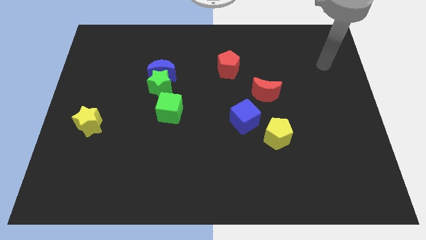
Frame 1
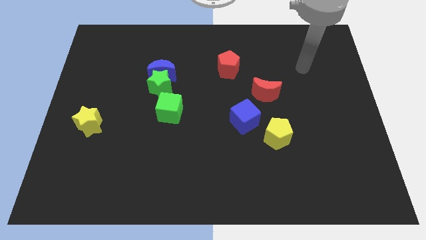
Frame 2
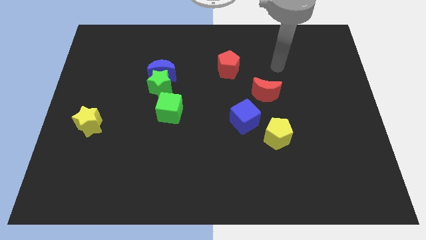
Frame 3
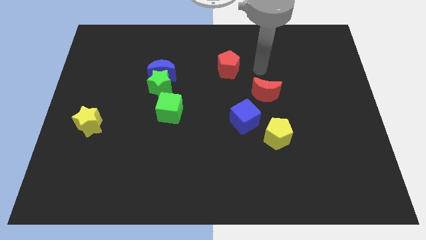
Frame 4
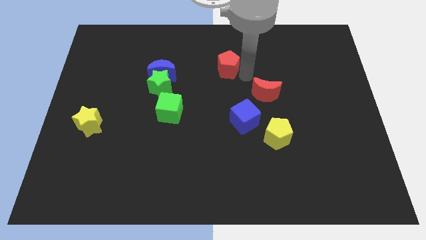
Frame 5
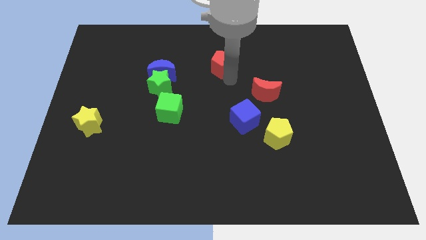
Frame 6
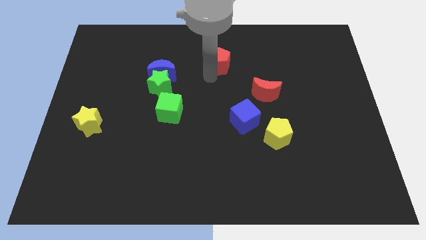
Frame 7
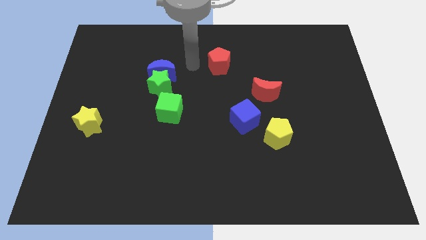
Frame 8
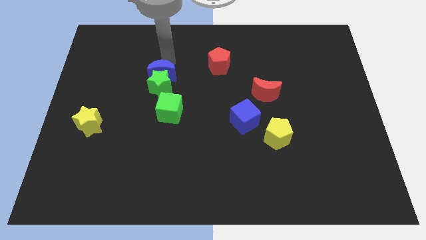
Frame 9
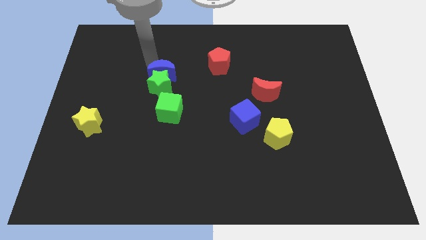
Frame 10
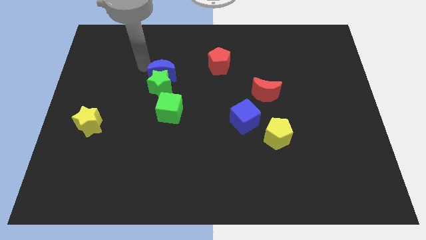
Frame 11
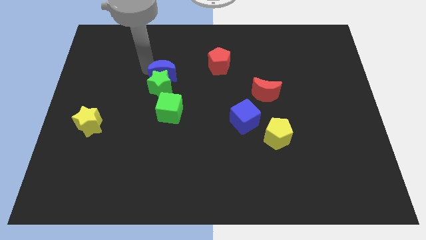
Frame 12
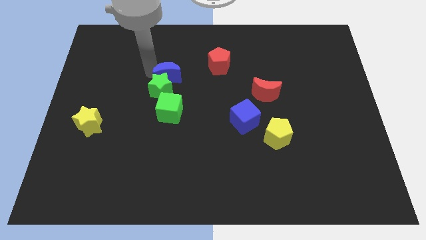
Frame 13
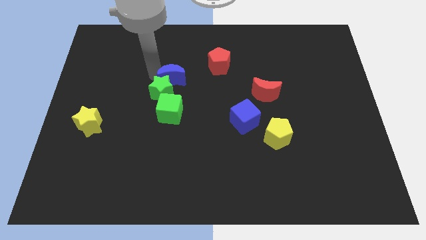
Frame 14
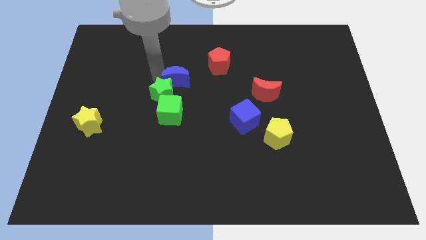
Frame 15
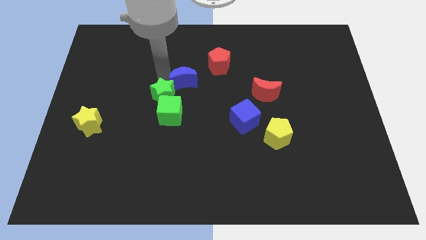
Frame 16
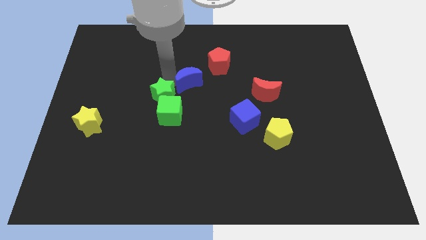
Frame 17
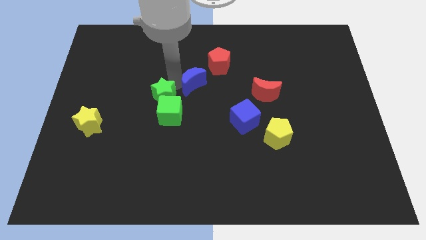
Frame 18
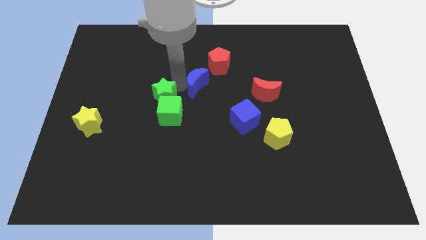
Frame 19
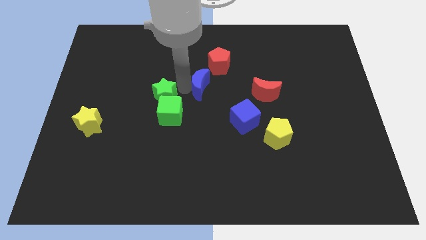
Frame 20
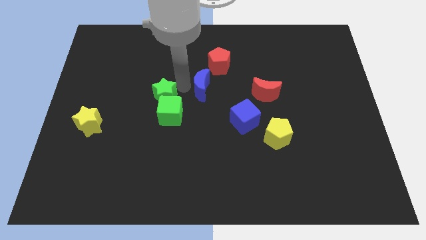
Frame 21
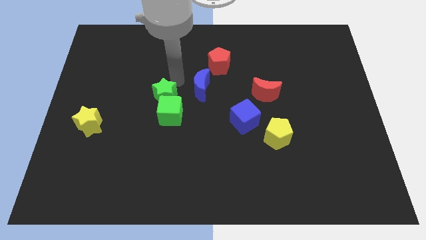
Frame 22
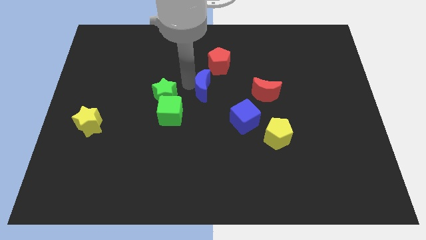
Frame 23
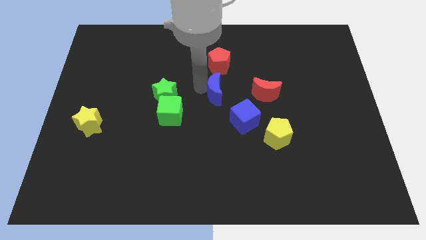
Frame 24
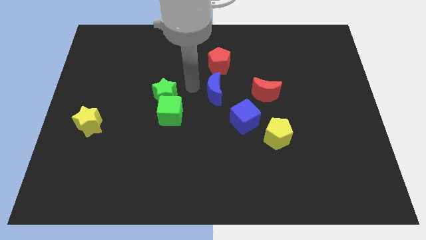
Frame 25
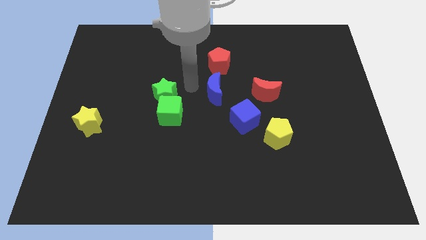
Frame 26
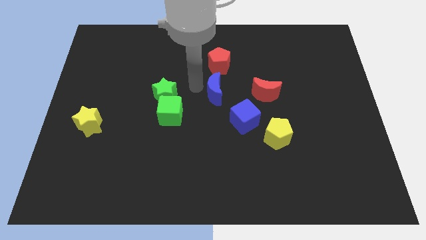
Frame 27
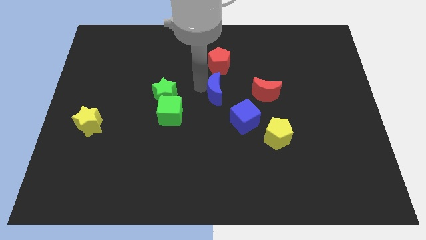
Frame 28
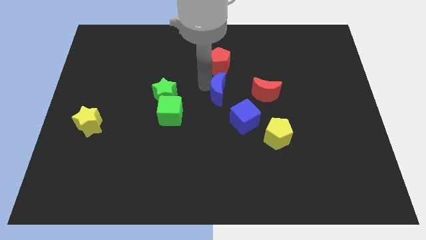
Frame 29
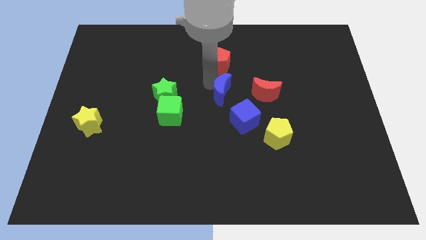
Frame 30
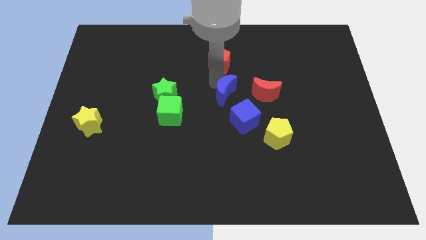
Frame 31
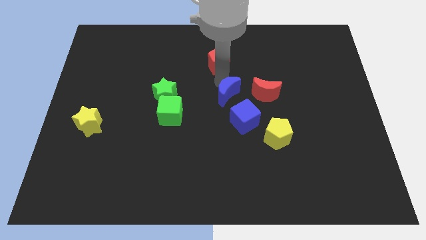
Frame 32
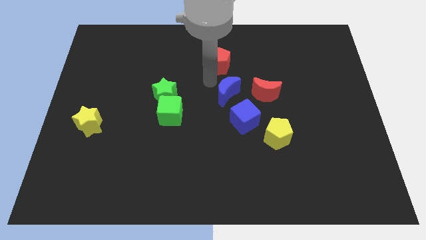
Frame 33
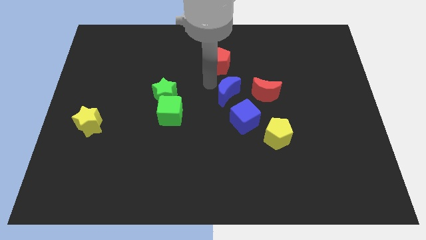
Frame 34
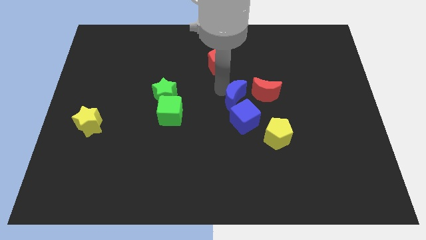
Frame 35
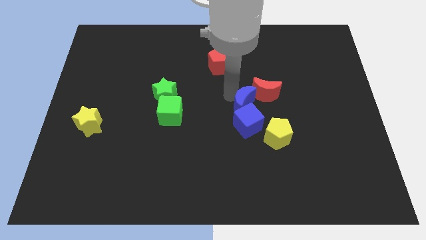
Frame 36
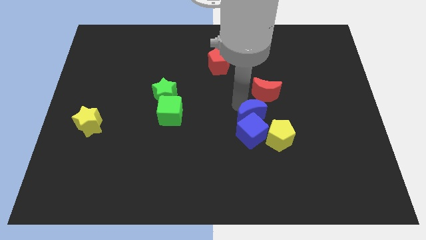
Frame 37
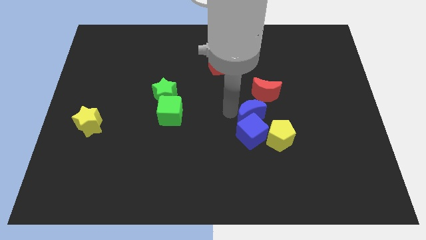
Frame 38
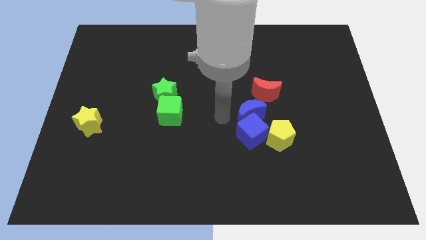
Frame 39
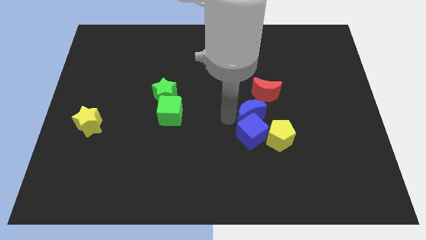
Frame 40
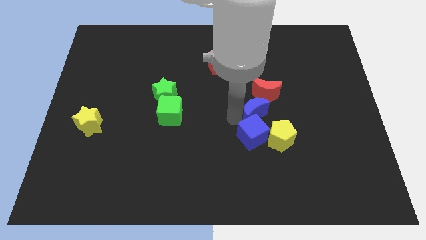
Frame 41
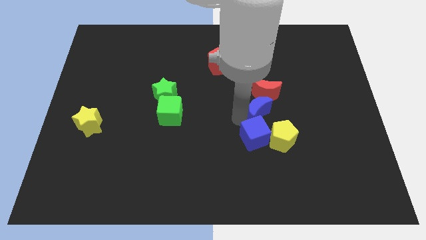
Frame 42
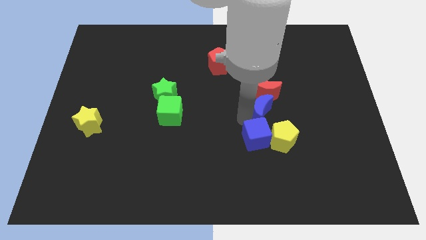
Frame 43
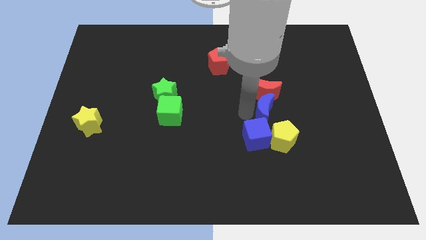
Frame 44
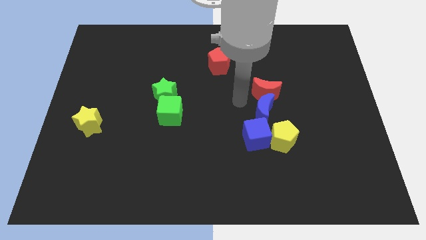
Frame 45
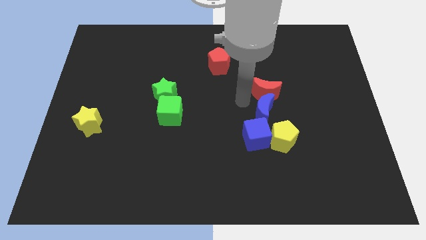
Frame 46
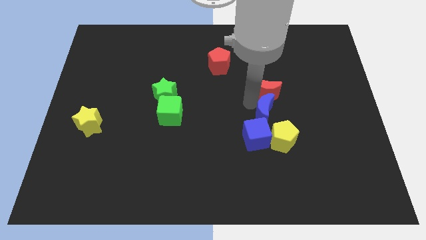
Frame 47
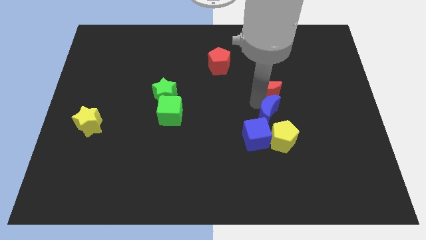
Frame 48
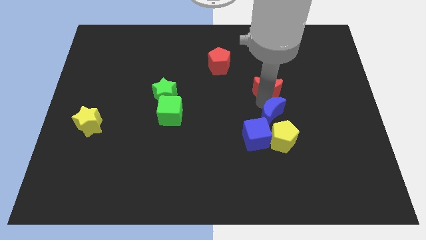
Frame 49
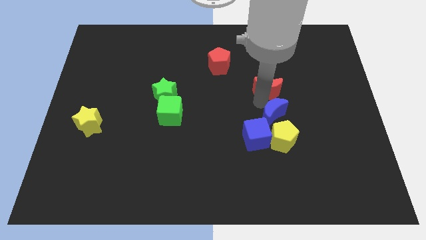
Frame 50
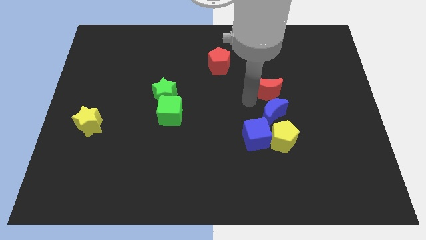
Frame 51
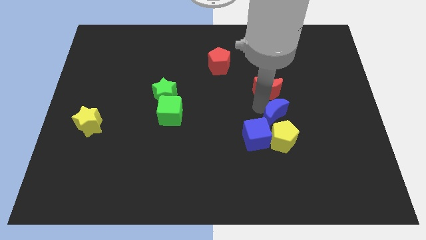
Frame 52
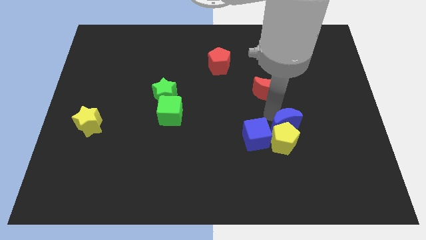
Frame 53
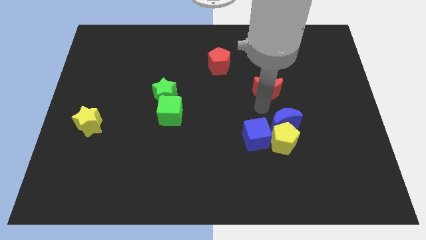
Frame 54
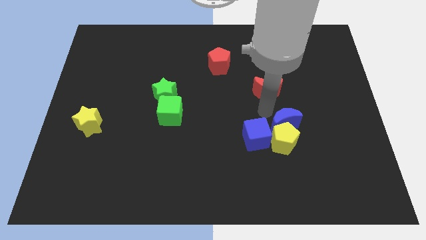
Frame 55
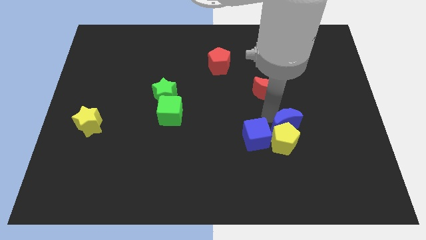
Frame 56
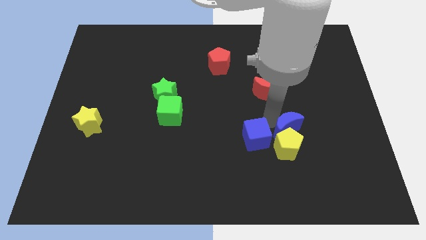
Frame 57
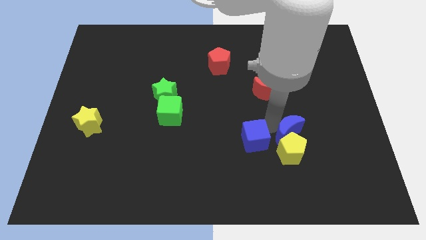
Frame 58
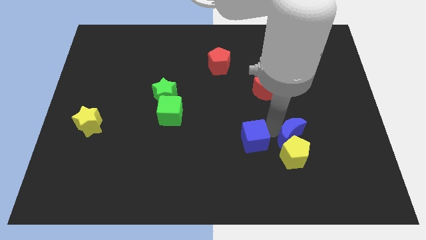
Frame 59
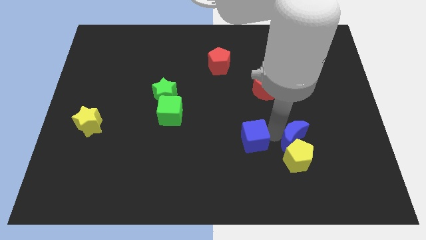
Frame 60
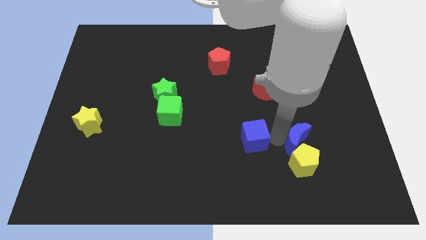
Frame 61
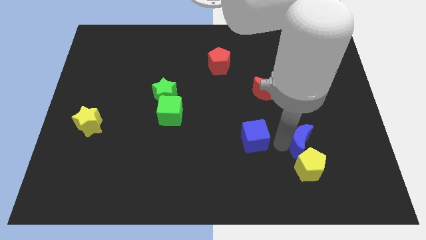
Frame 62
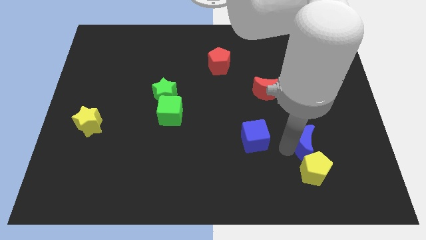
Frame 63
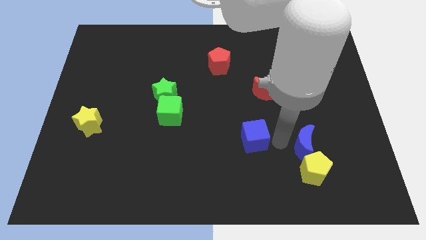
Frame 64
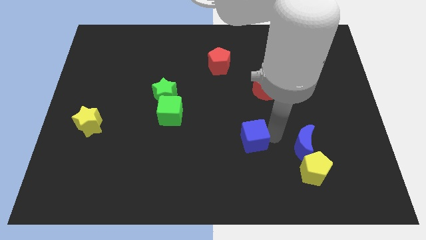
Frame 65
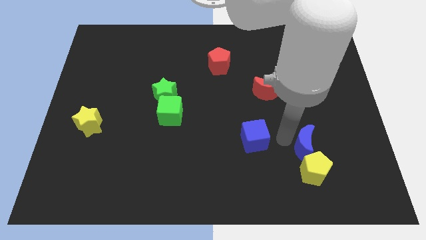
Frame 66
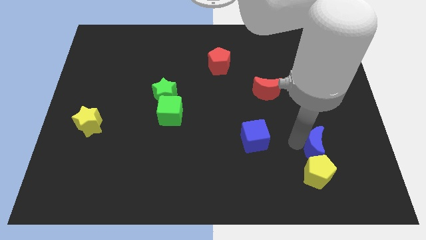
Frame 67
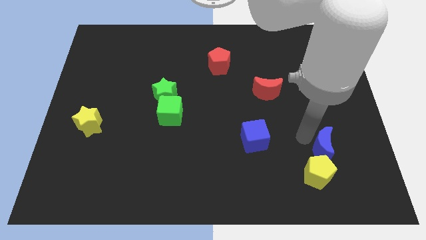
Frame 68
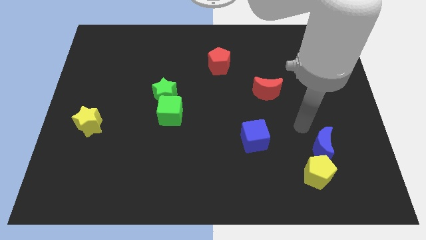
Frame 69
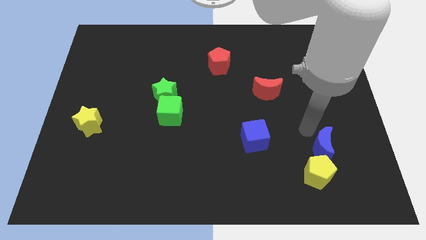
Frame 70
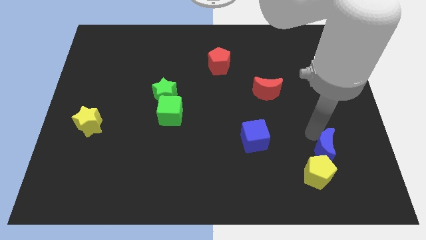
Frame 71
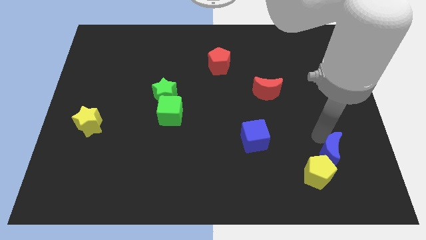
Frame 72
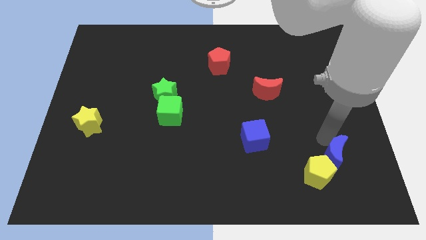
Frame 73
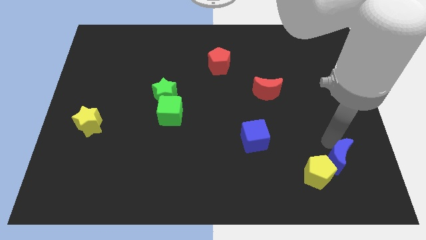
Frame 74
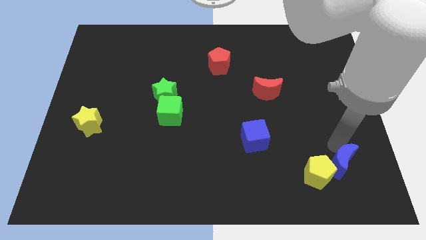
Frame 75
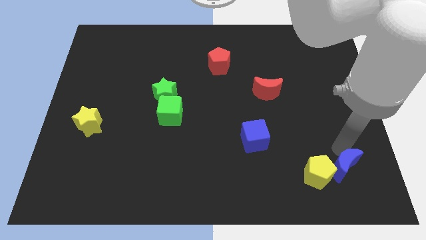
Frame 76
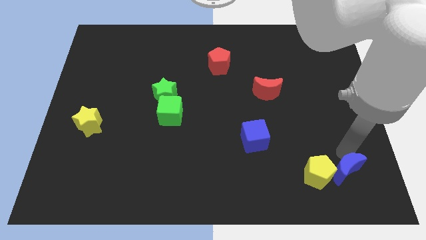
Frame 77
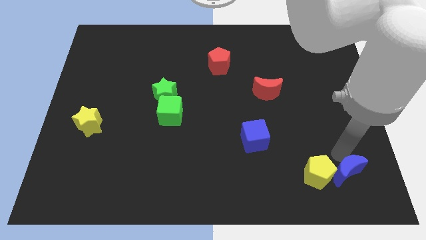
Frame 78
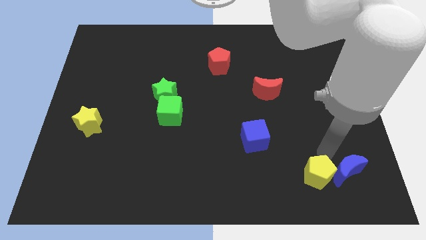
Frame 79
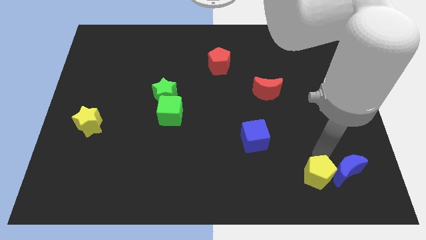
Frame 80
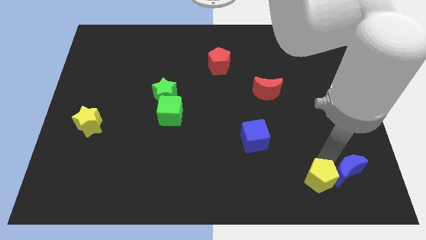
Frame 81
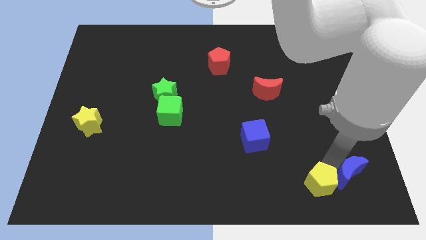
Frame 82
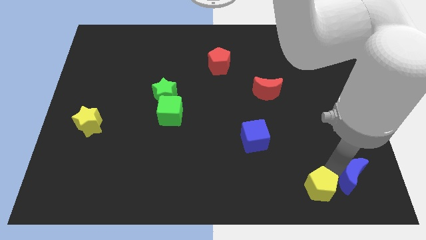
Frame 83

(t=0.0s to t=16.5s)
push the blue moon to the lower right corner
